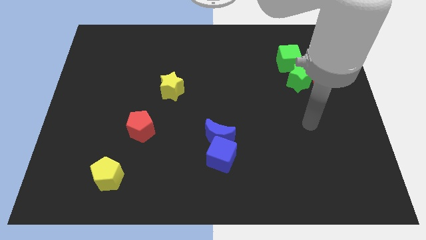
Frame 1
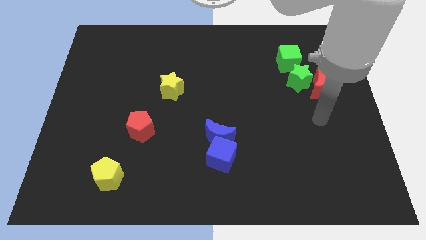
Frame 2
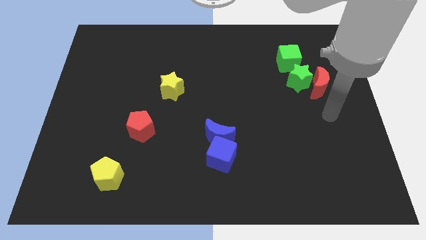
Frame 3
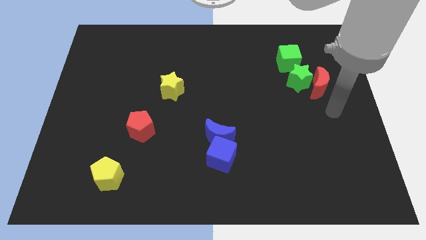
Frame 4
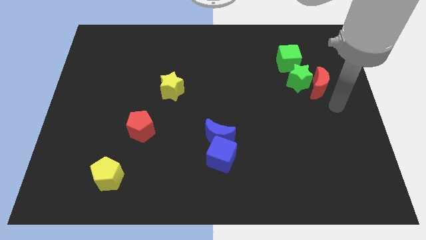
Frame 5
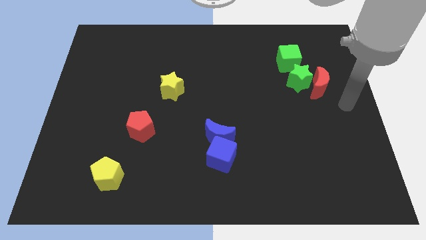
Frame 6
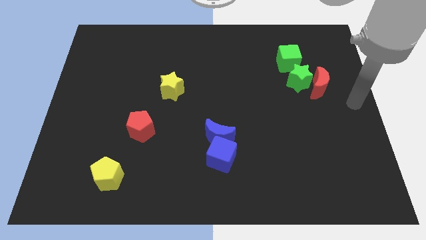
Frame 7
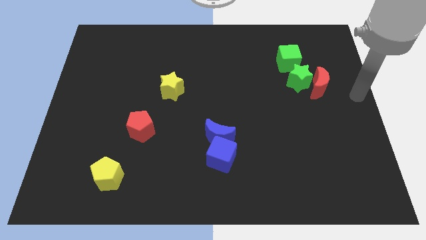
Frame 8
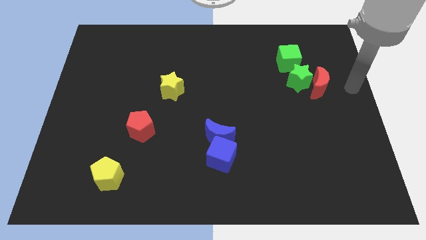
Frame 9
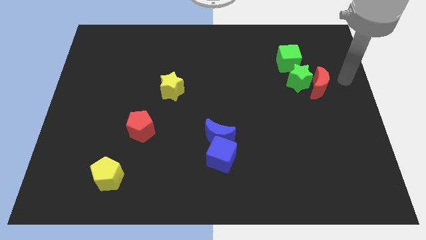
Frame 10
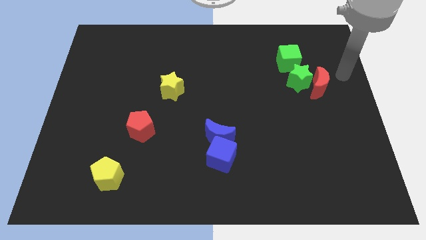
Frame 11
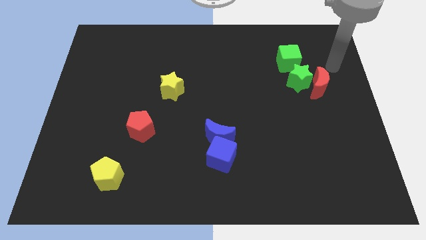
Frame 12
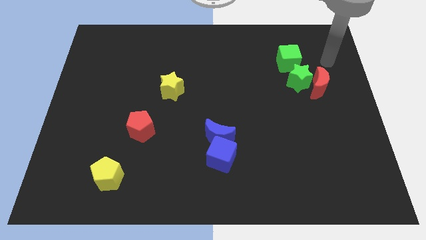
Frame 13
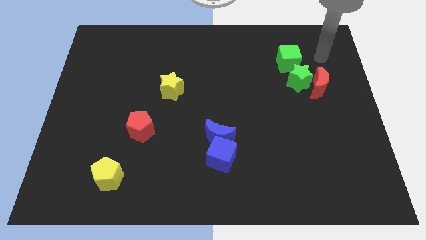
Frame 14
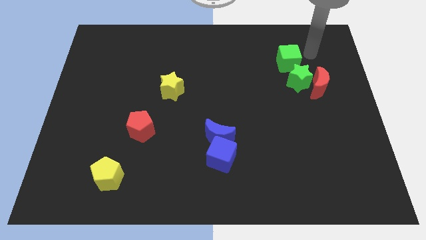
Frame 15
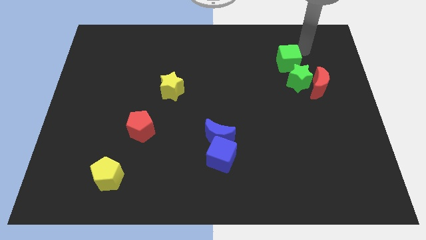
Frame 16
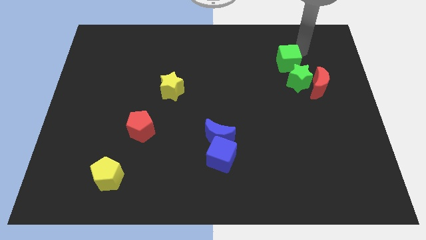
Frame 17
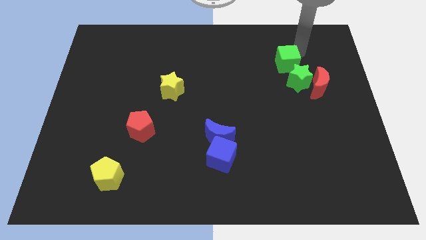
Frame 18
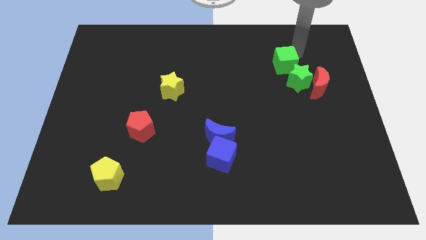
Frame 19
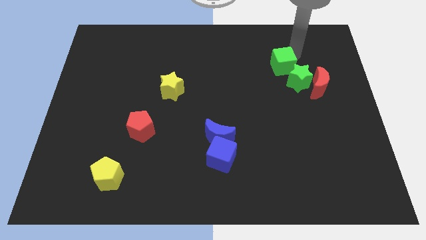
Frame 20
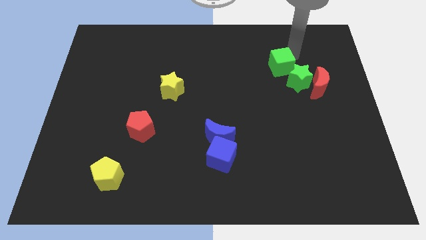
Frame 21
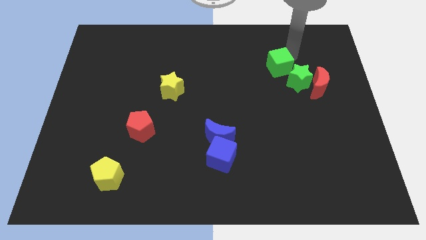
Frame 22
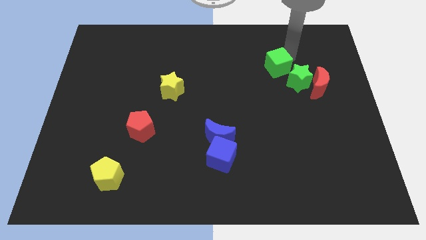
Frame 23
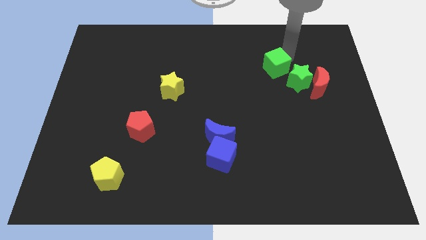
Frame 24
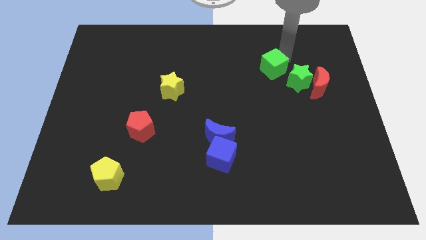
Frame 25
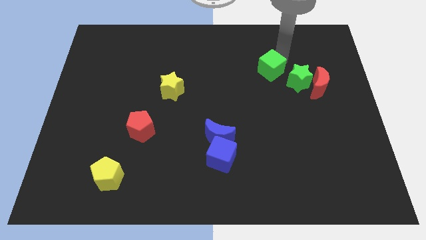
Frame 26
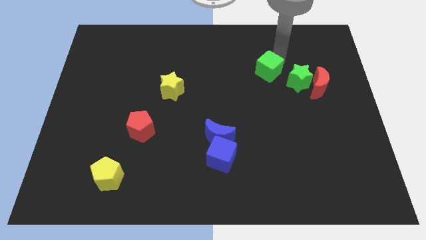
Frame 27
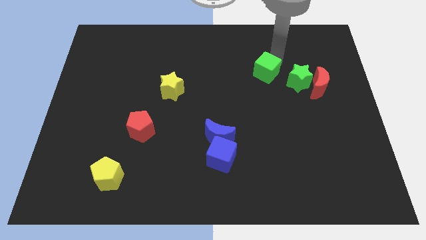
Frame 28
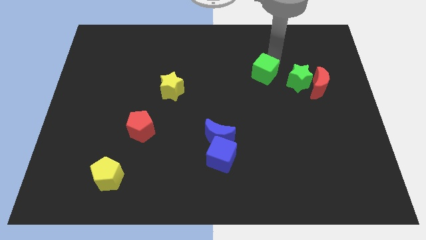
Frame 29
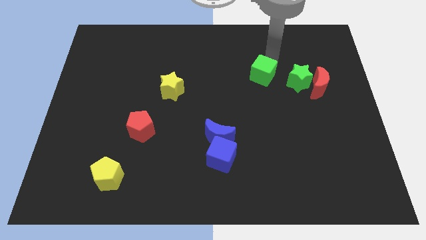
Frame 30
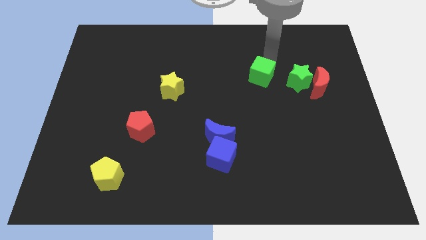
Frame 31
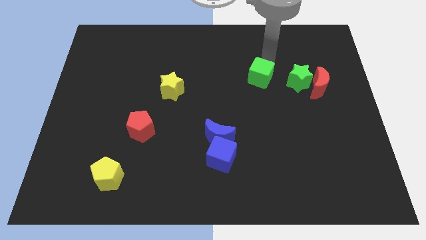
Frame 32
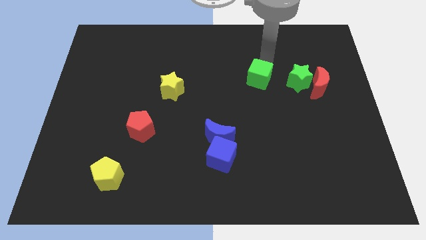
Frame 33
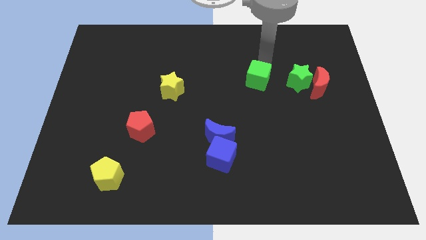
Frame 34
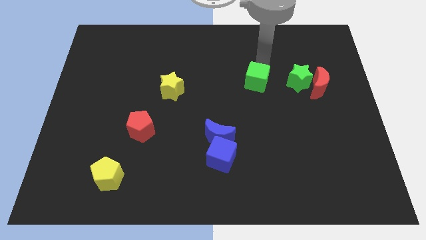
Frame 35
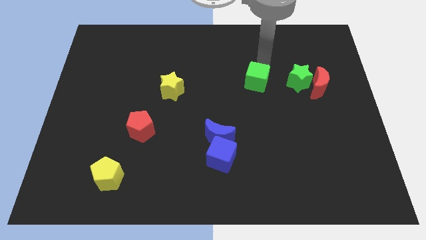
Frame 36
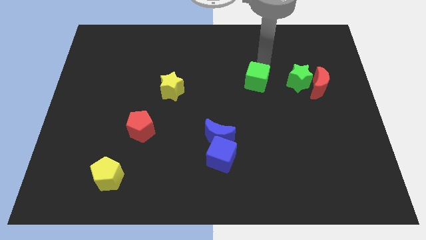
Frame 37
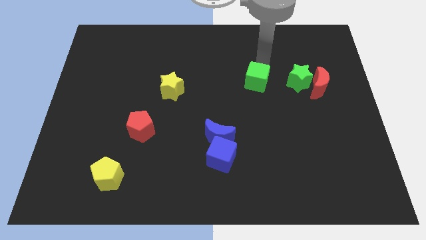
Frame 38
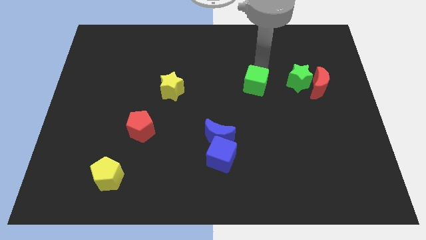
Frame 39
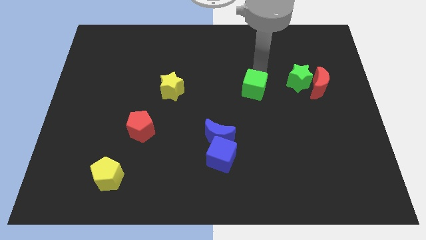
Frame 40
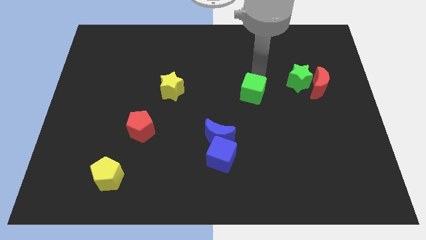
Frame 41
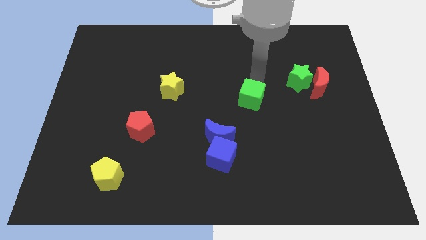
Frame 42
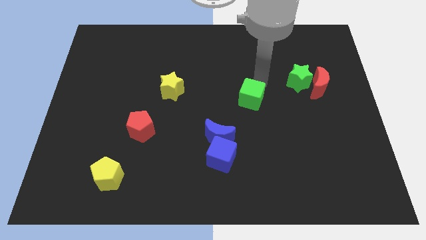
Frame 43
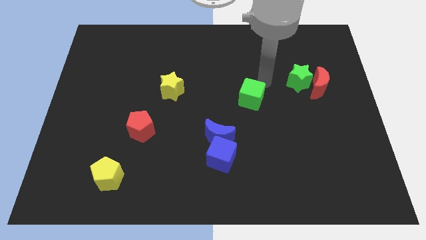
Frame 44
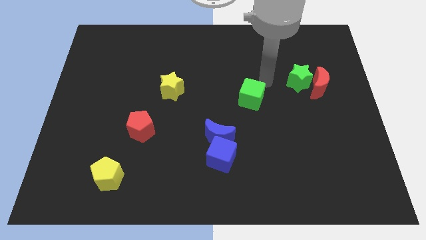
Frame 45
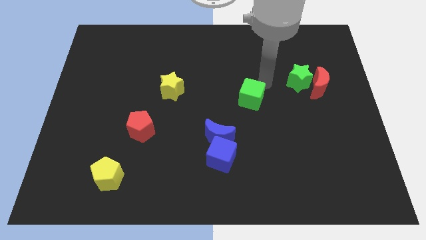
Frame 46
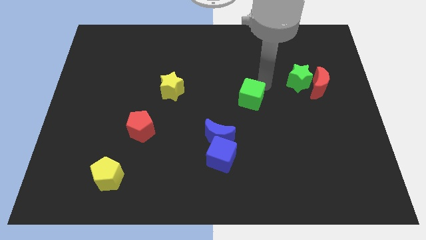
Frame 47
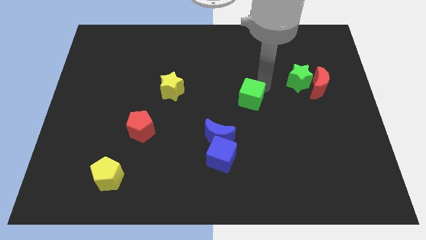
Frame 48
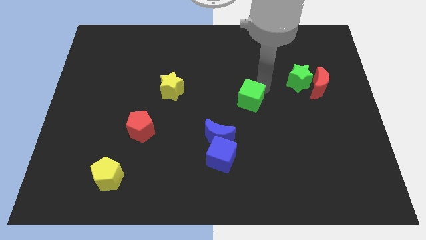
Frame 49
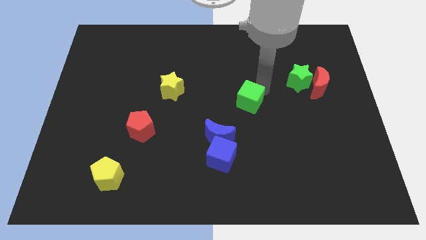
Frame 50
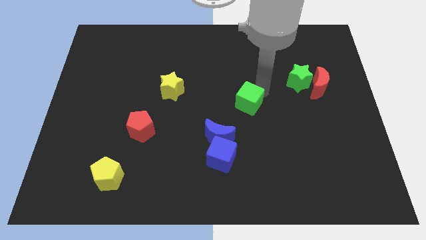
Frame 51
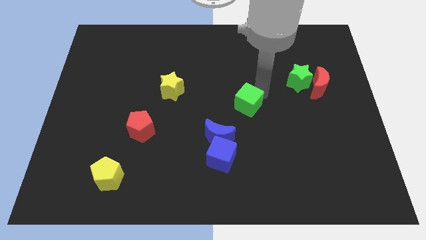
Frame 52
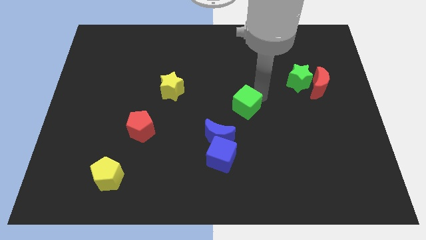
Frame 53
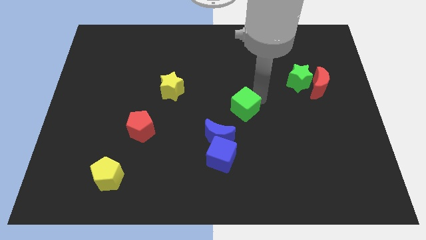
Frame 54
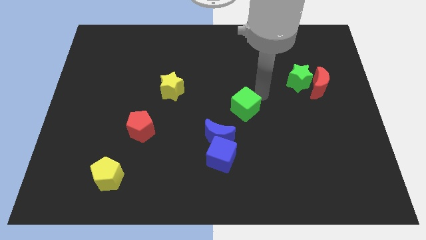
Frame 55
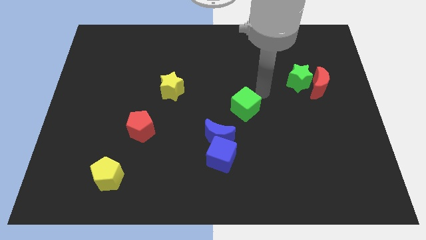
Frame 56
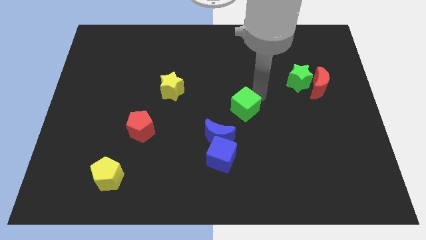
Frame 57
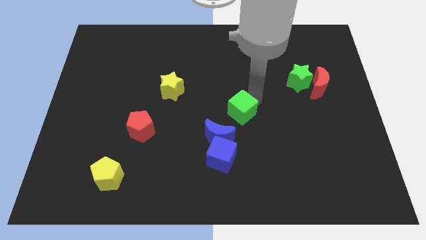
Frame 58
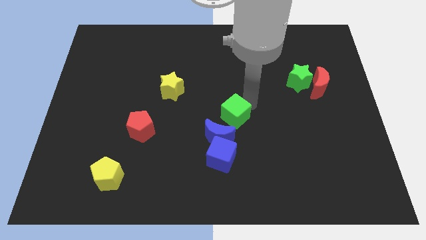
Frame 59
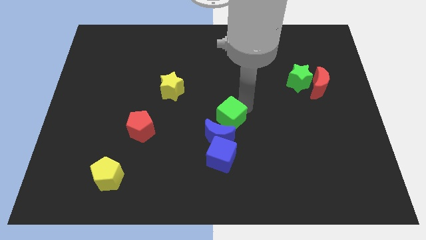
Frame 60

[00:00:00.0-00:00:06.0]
push the green cube next to the blue moon

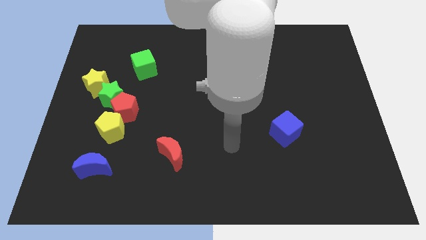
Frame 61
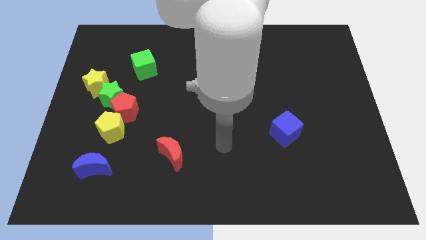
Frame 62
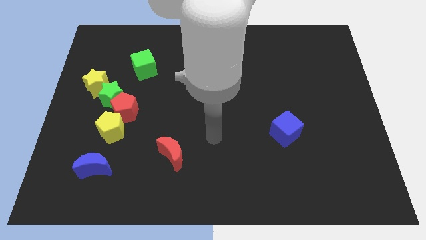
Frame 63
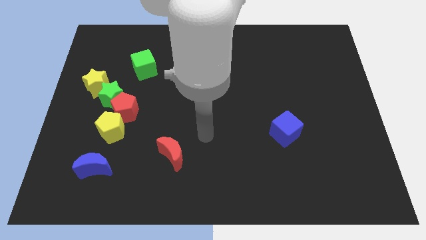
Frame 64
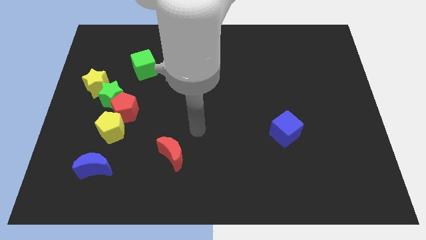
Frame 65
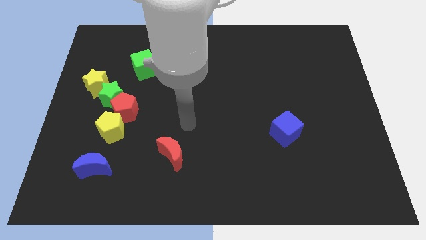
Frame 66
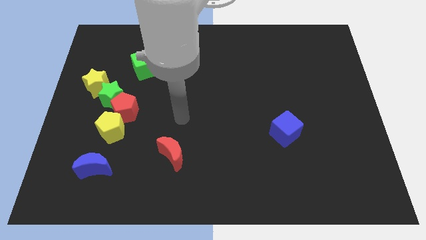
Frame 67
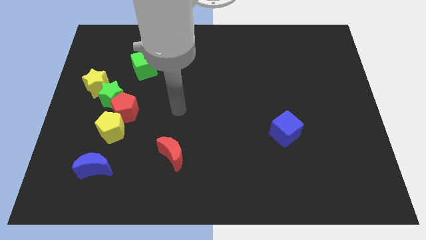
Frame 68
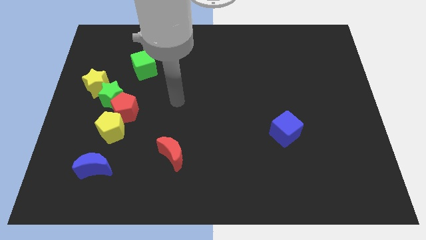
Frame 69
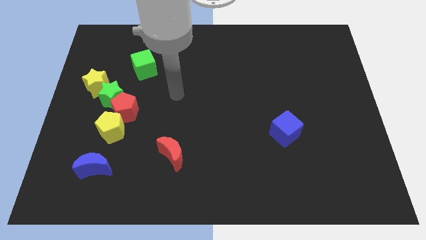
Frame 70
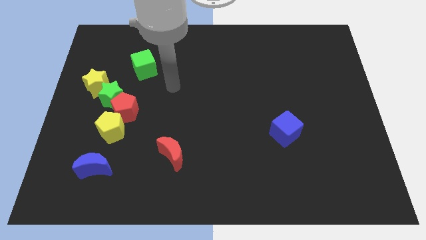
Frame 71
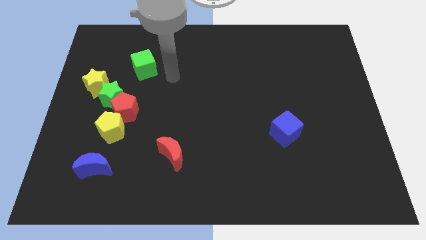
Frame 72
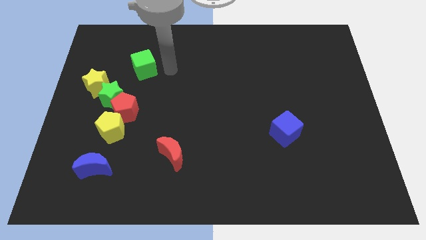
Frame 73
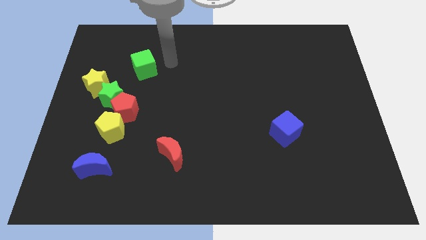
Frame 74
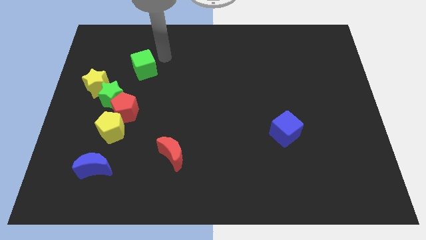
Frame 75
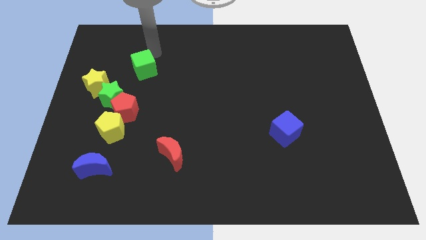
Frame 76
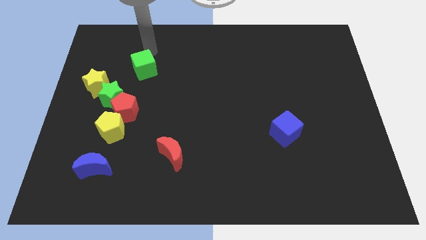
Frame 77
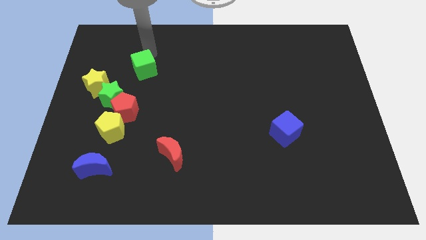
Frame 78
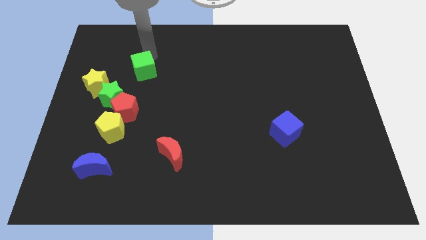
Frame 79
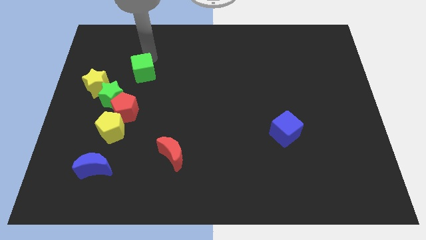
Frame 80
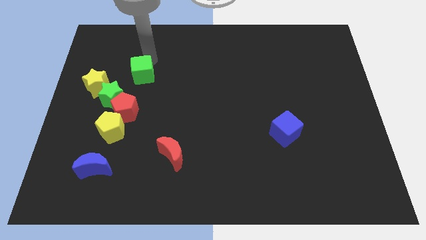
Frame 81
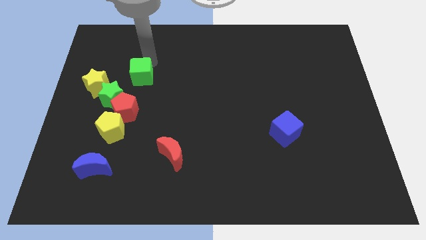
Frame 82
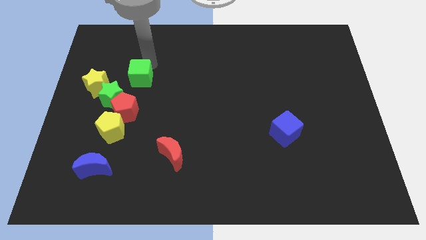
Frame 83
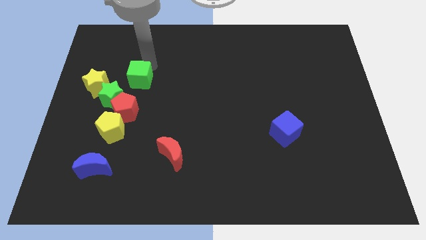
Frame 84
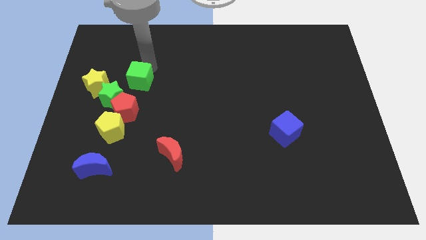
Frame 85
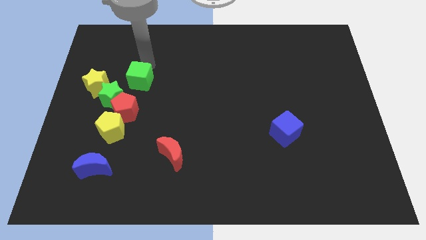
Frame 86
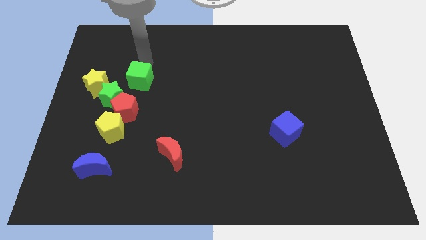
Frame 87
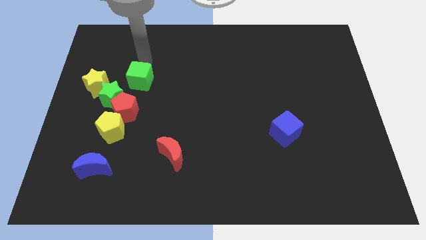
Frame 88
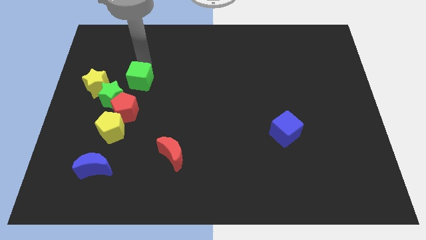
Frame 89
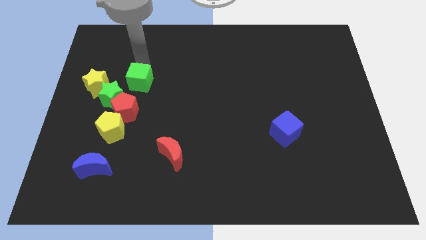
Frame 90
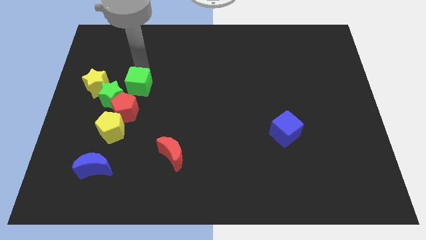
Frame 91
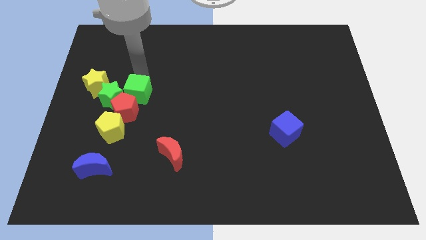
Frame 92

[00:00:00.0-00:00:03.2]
push the green cube to the red pentagon
